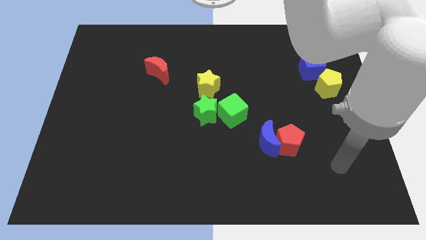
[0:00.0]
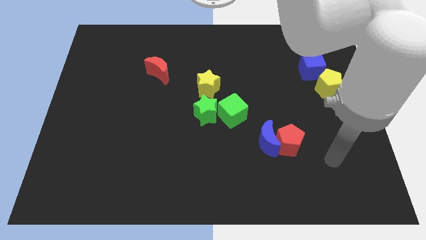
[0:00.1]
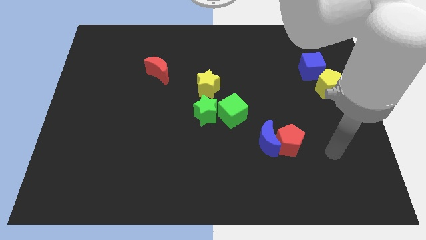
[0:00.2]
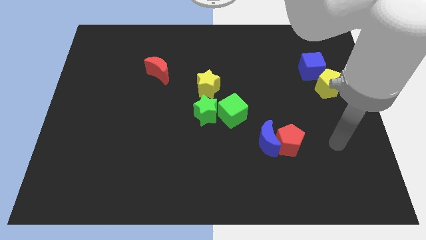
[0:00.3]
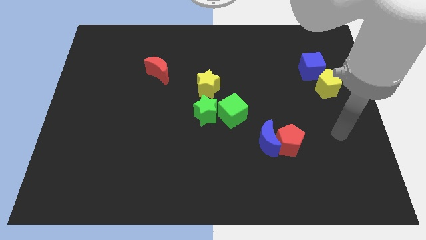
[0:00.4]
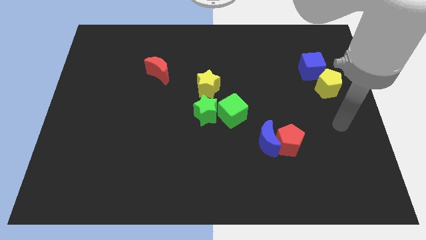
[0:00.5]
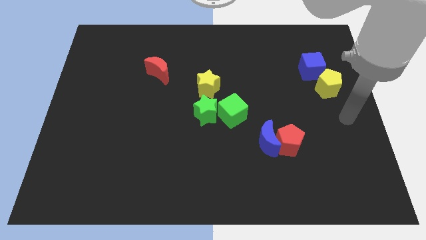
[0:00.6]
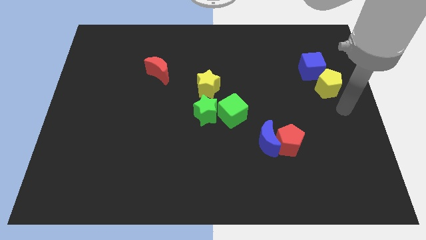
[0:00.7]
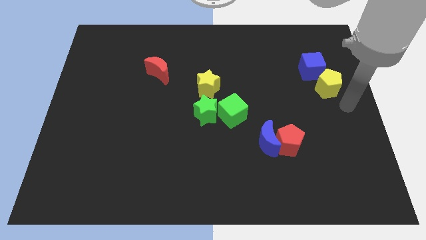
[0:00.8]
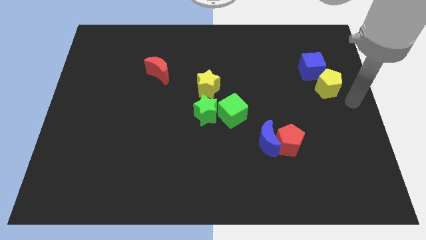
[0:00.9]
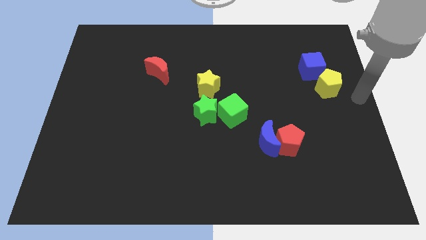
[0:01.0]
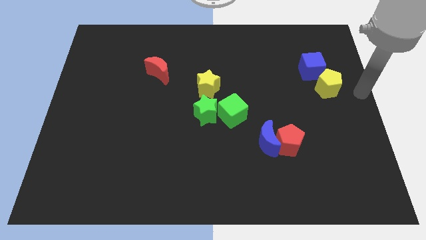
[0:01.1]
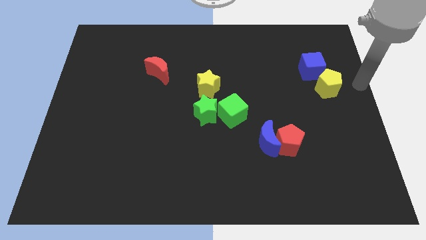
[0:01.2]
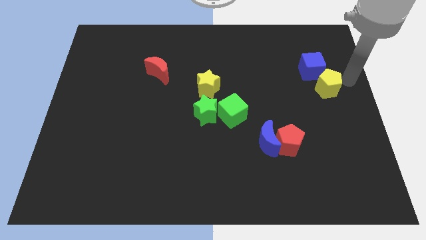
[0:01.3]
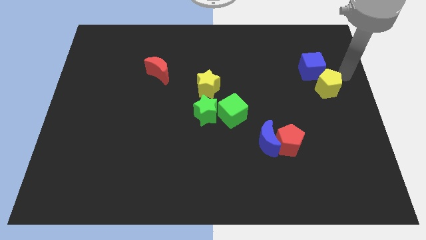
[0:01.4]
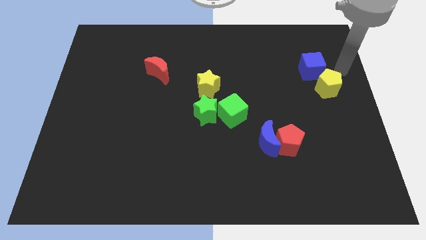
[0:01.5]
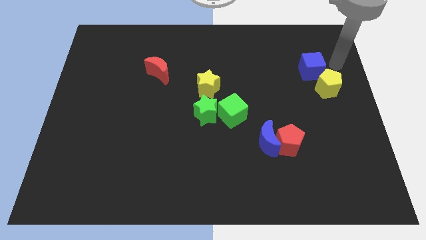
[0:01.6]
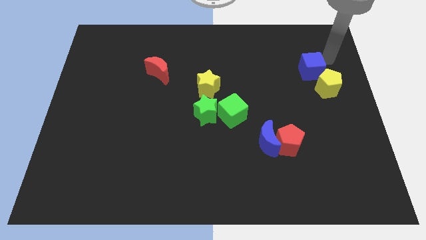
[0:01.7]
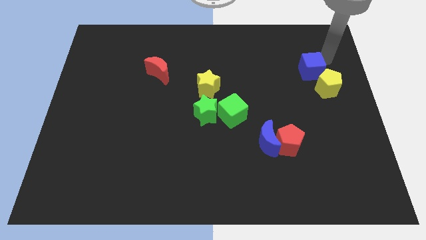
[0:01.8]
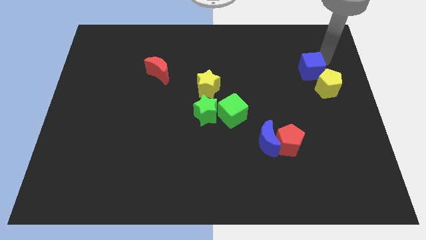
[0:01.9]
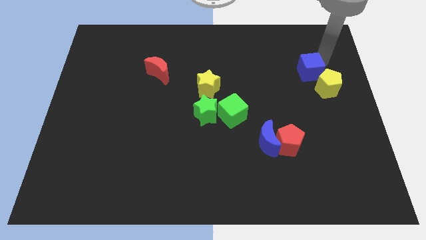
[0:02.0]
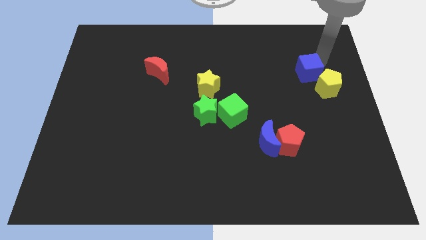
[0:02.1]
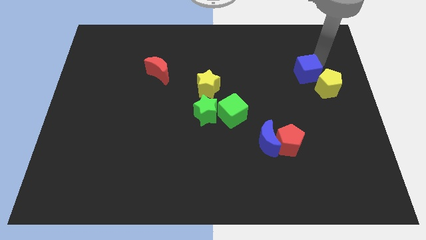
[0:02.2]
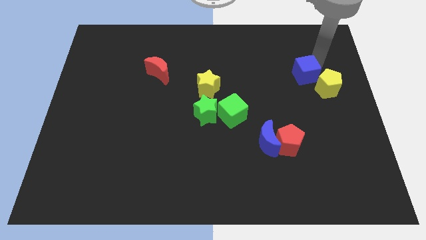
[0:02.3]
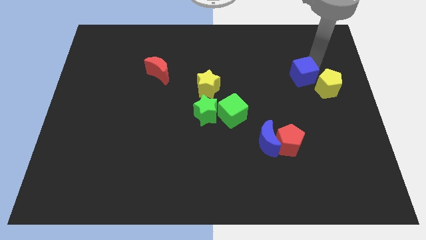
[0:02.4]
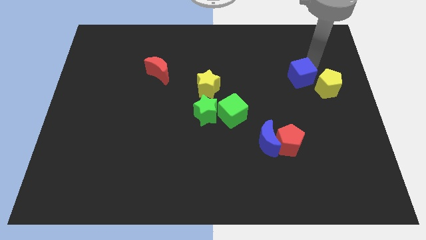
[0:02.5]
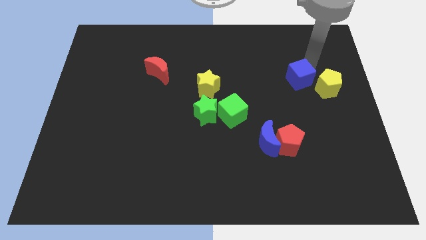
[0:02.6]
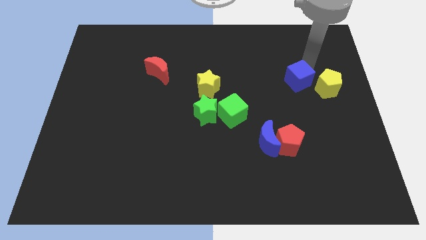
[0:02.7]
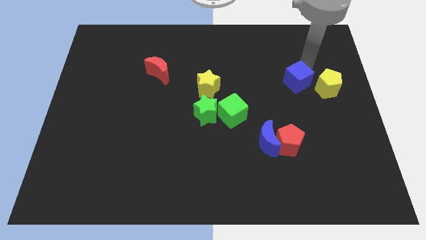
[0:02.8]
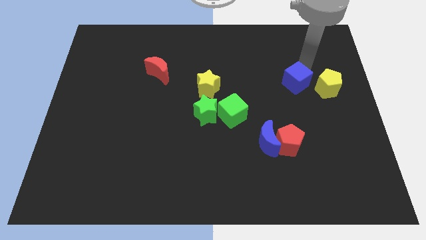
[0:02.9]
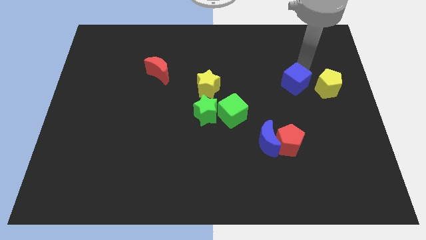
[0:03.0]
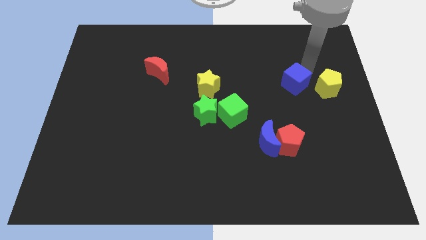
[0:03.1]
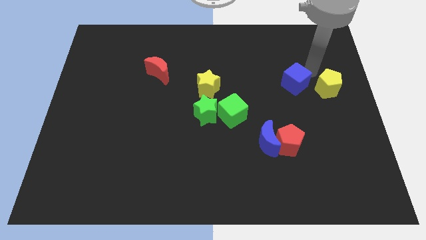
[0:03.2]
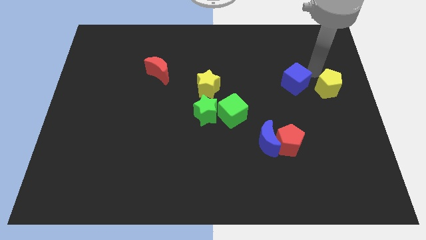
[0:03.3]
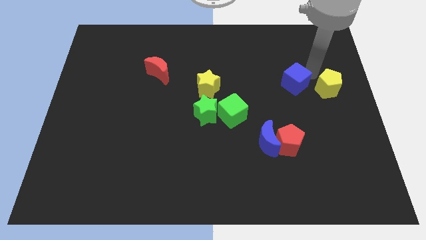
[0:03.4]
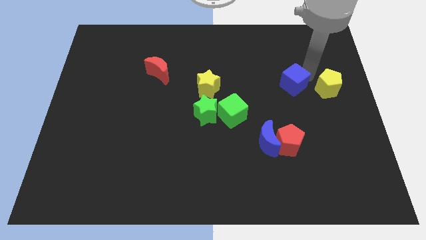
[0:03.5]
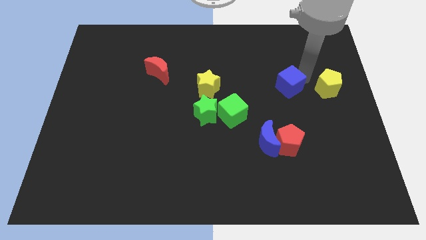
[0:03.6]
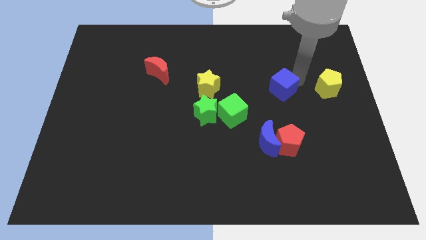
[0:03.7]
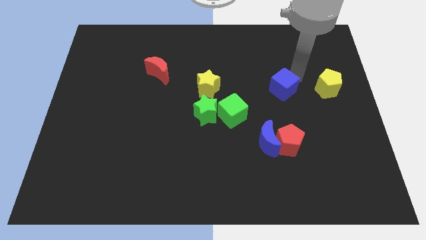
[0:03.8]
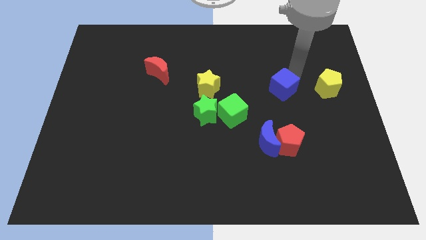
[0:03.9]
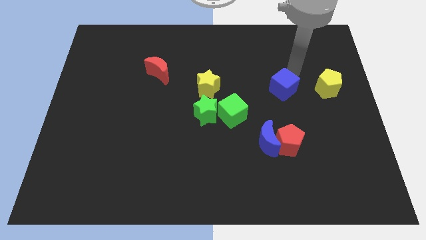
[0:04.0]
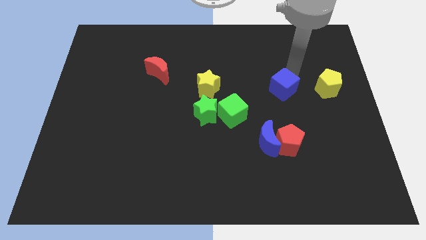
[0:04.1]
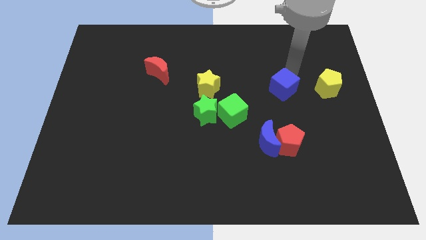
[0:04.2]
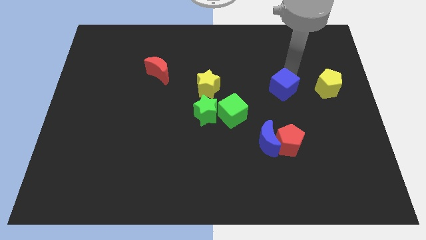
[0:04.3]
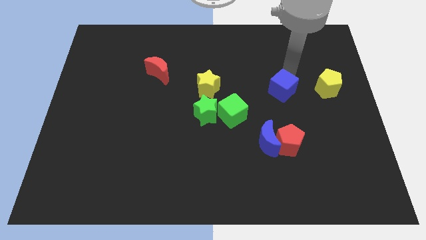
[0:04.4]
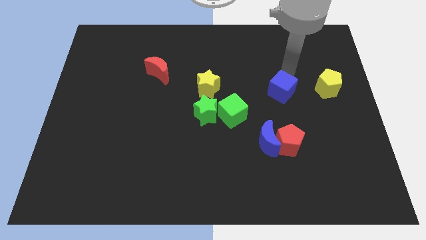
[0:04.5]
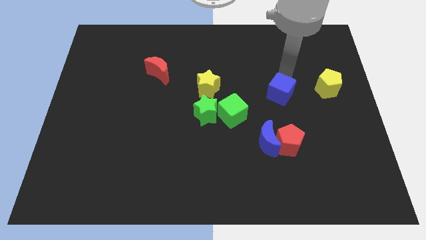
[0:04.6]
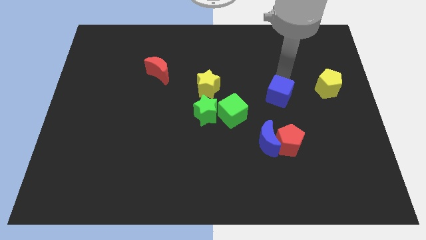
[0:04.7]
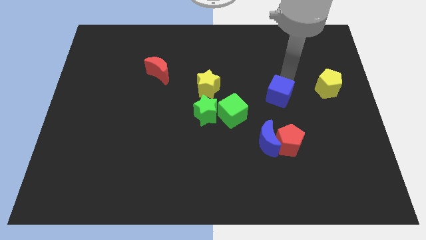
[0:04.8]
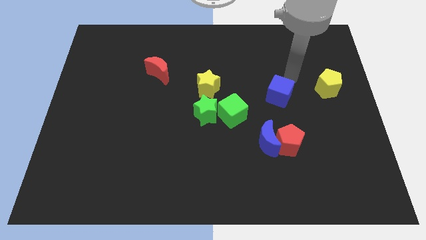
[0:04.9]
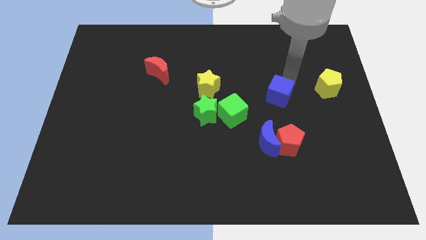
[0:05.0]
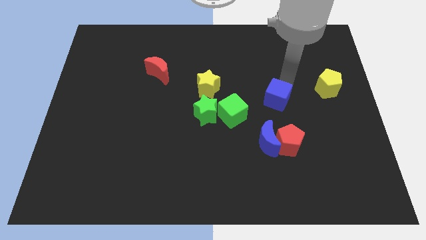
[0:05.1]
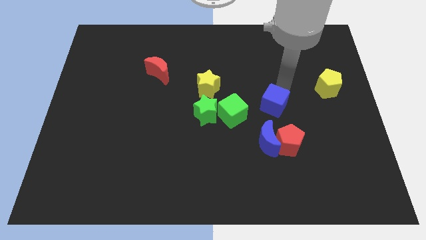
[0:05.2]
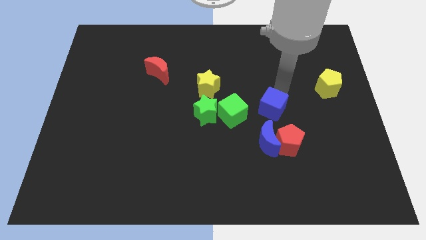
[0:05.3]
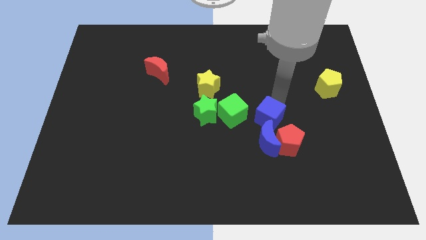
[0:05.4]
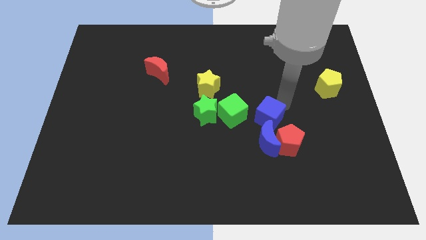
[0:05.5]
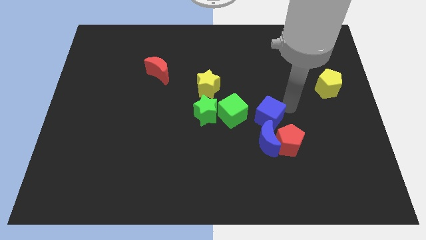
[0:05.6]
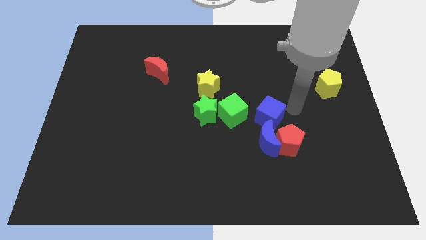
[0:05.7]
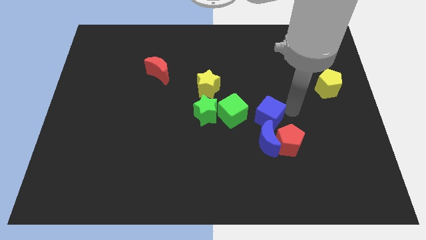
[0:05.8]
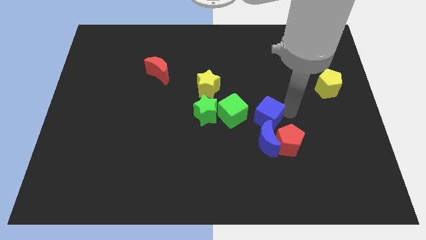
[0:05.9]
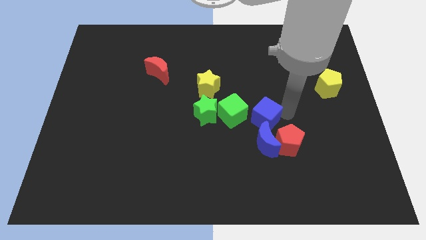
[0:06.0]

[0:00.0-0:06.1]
slide the blue cube diagonally down and left

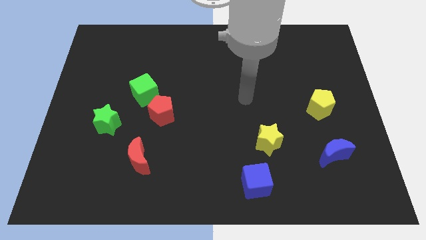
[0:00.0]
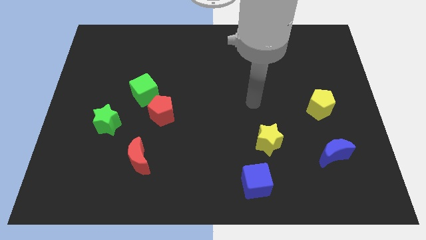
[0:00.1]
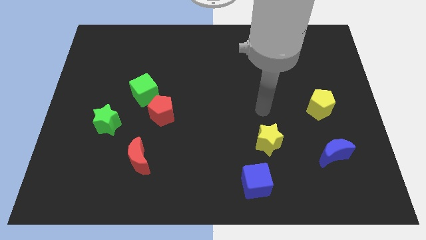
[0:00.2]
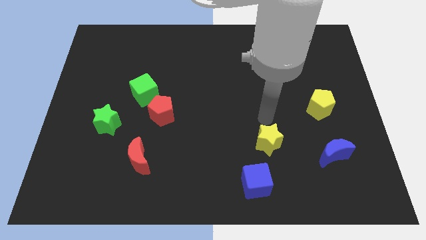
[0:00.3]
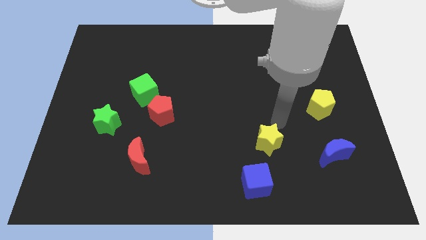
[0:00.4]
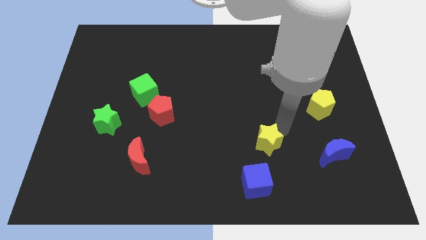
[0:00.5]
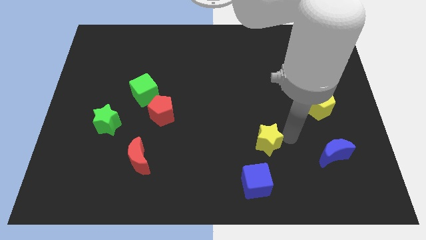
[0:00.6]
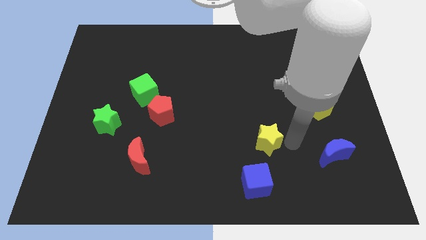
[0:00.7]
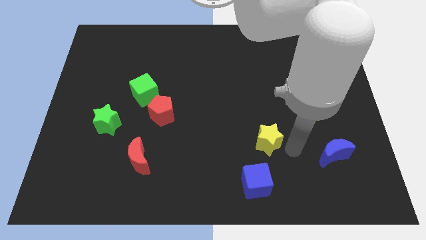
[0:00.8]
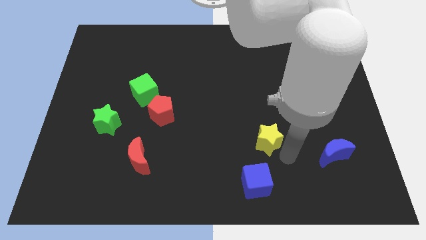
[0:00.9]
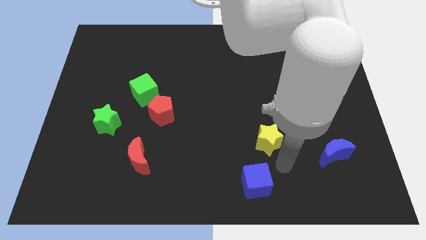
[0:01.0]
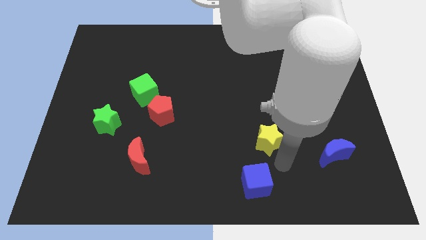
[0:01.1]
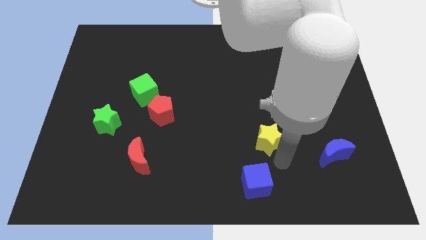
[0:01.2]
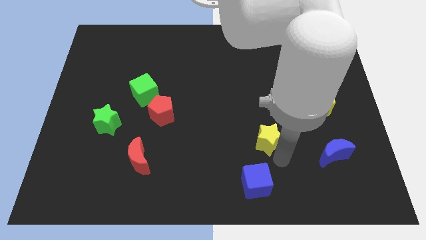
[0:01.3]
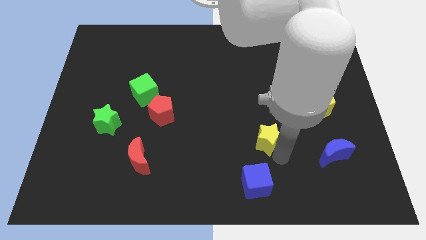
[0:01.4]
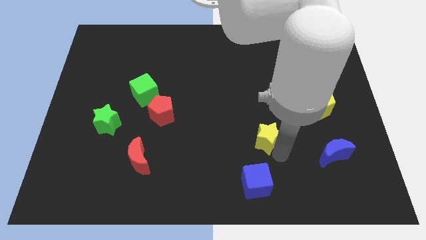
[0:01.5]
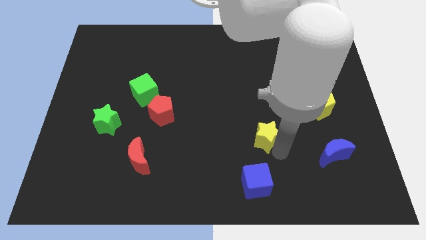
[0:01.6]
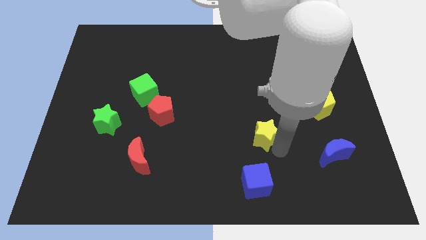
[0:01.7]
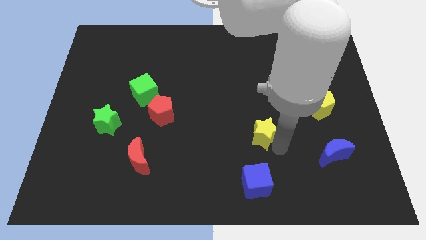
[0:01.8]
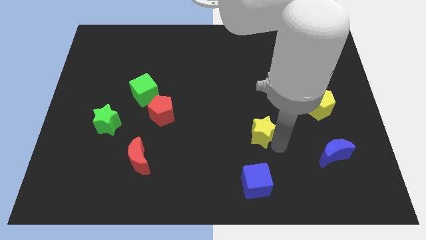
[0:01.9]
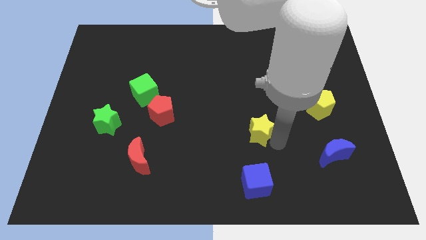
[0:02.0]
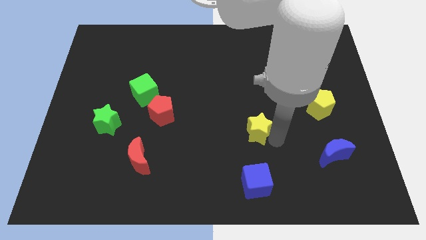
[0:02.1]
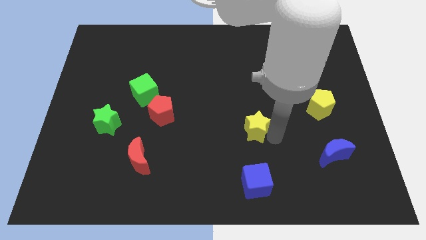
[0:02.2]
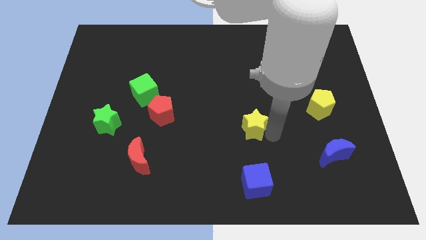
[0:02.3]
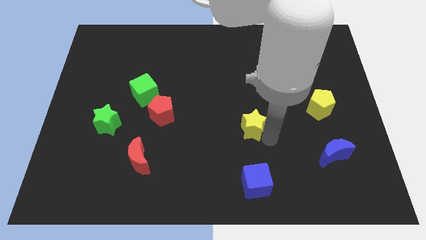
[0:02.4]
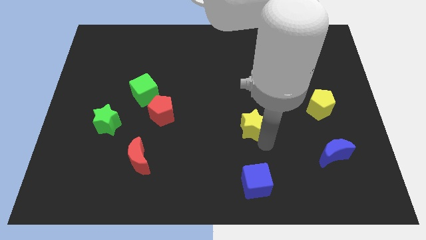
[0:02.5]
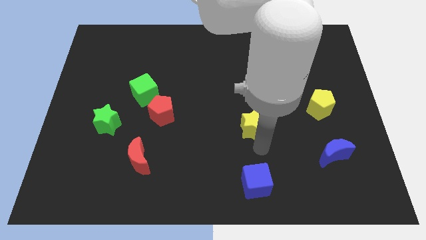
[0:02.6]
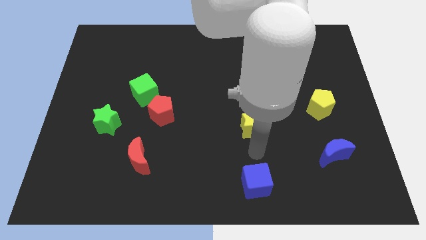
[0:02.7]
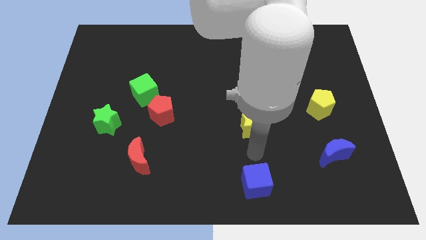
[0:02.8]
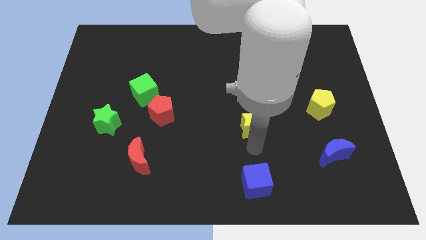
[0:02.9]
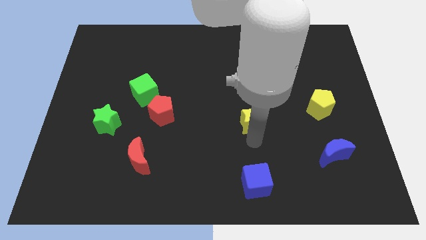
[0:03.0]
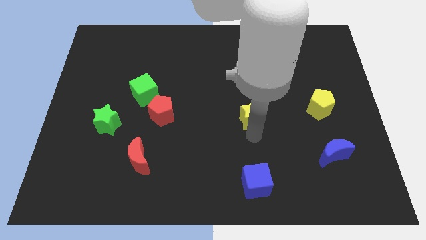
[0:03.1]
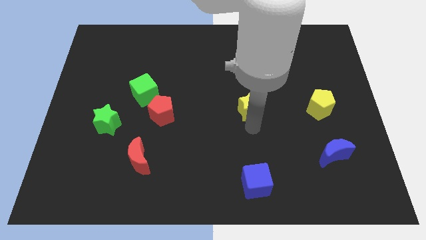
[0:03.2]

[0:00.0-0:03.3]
slide the yellow star a little upwards
